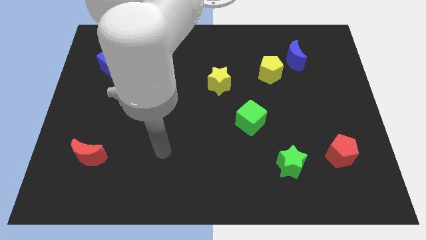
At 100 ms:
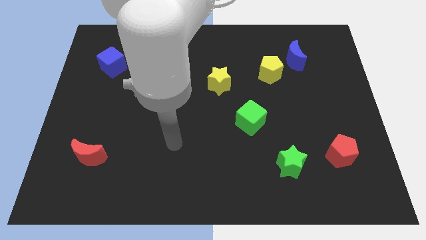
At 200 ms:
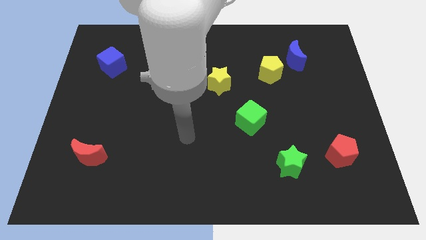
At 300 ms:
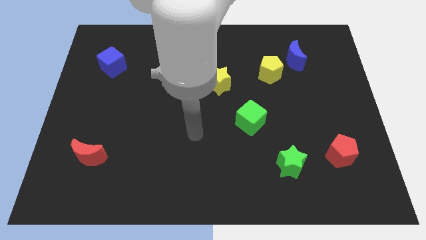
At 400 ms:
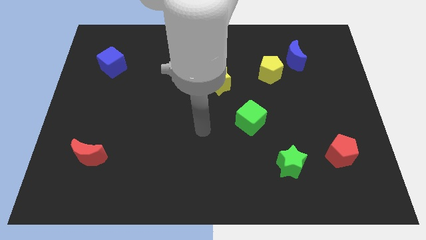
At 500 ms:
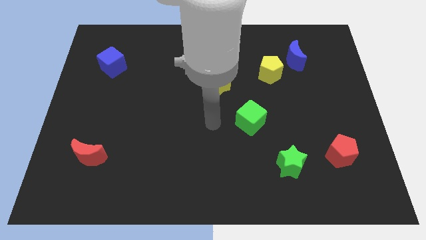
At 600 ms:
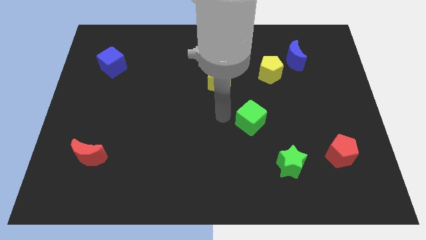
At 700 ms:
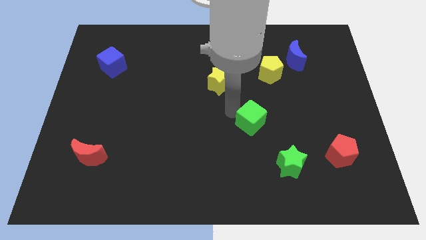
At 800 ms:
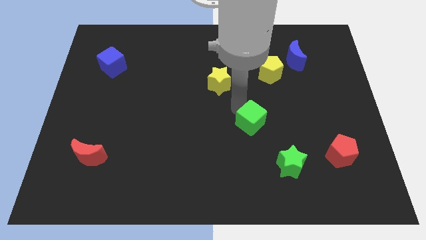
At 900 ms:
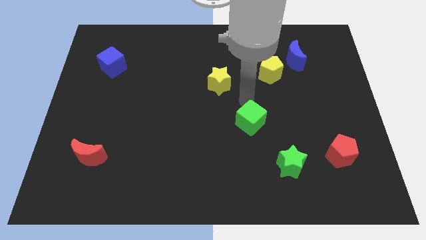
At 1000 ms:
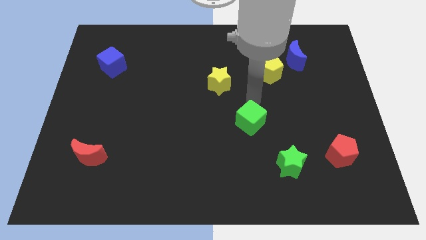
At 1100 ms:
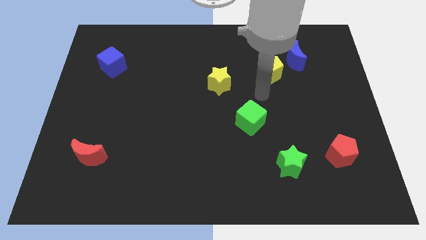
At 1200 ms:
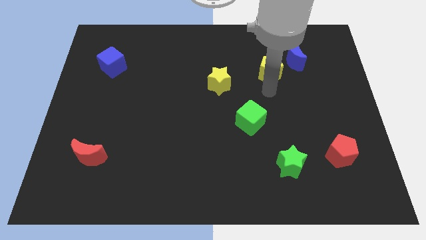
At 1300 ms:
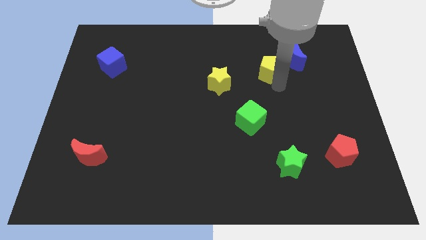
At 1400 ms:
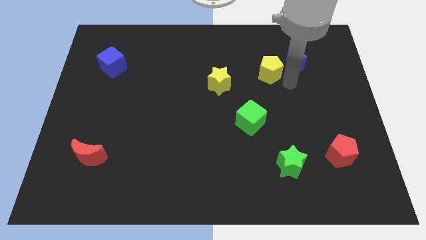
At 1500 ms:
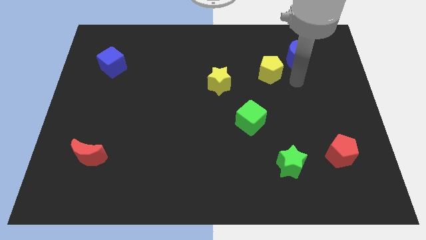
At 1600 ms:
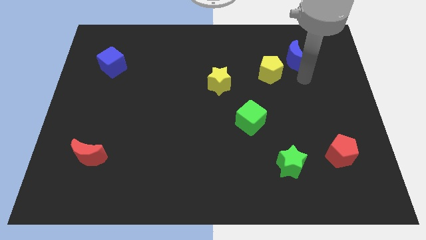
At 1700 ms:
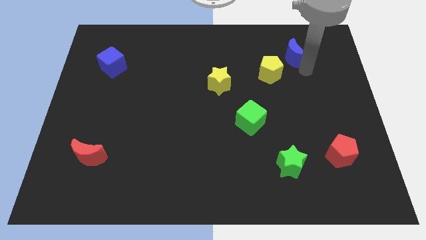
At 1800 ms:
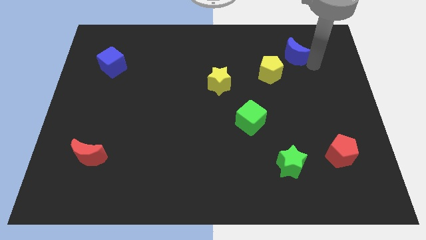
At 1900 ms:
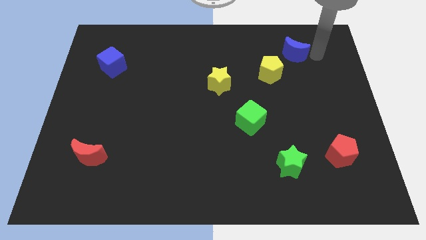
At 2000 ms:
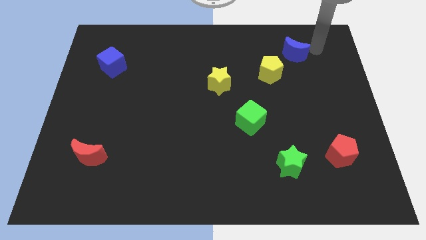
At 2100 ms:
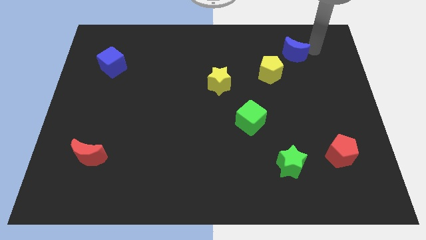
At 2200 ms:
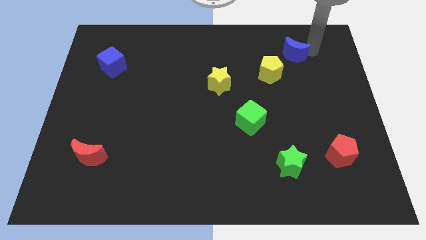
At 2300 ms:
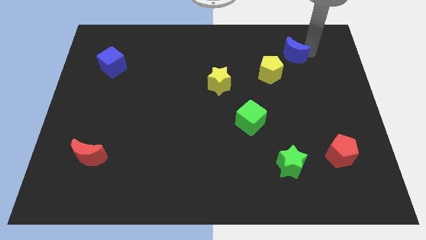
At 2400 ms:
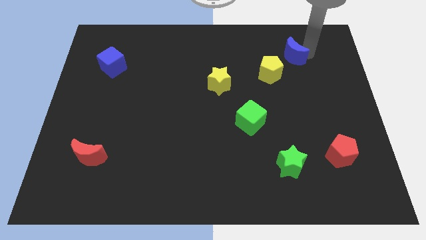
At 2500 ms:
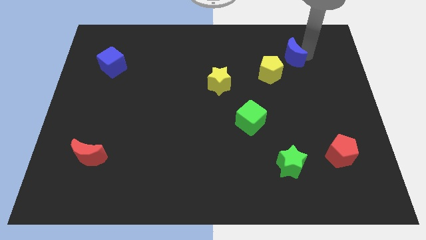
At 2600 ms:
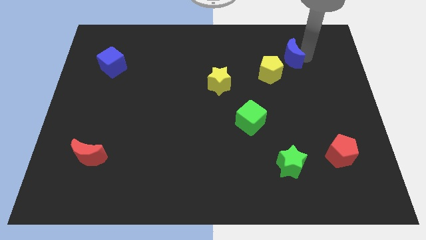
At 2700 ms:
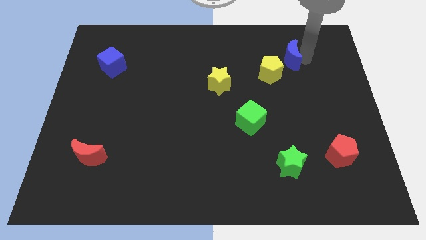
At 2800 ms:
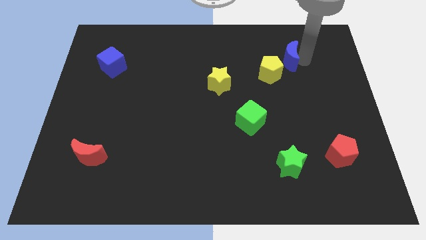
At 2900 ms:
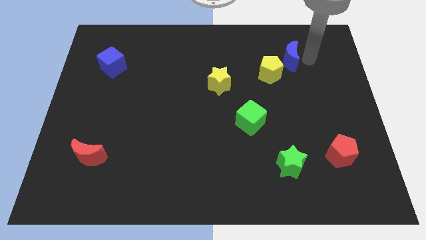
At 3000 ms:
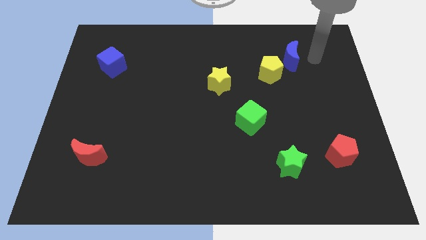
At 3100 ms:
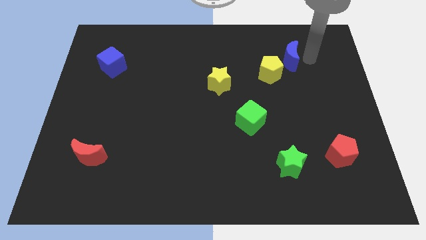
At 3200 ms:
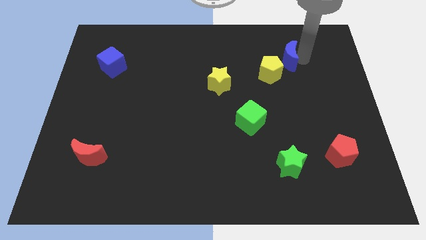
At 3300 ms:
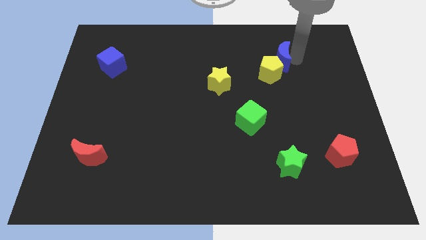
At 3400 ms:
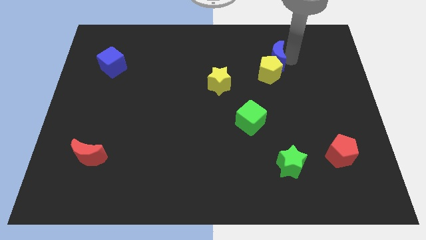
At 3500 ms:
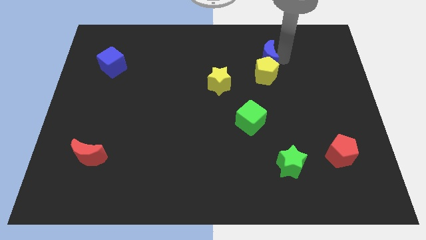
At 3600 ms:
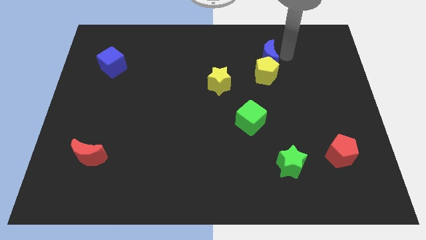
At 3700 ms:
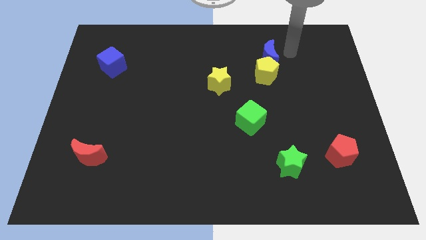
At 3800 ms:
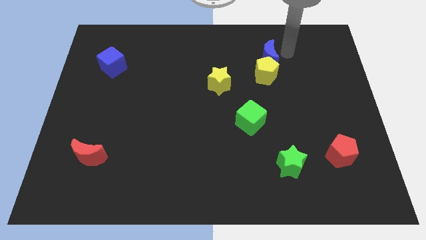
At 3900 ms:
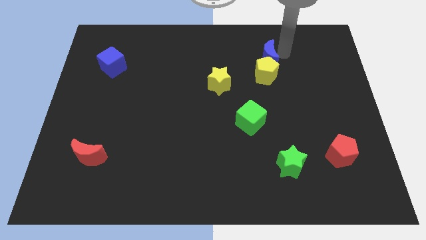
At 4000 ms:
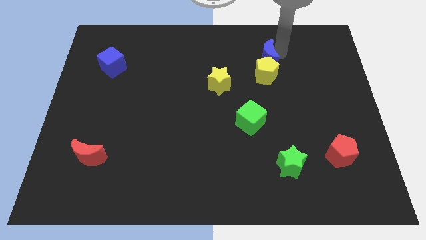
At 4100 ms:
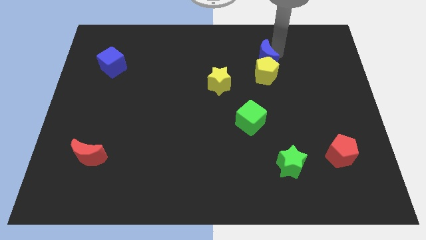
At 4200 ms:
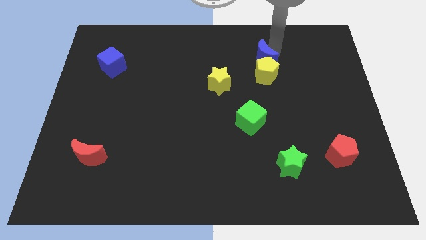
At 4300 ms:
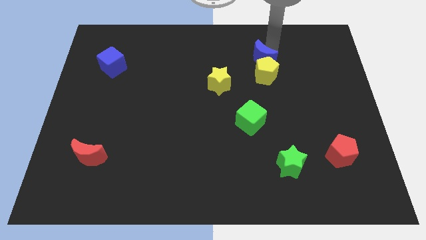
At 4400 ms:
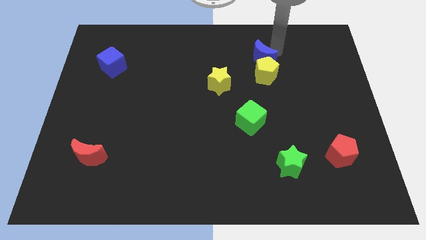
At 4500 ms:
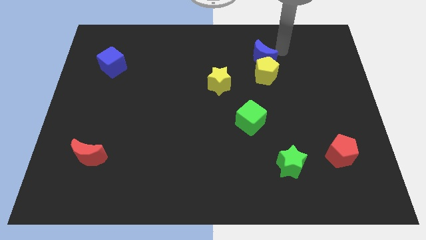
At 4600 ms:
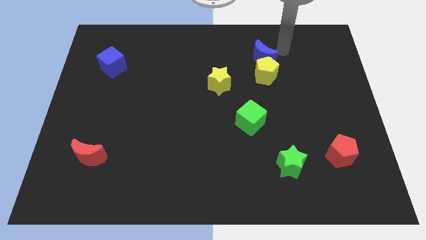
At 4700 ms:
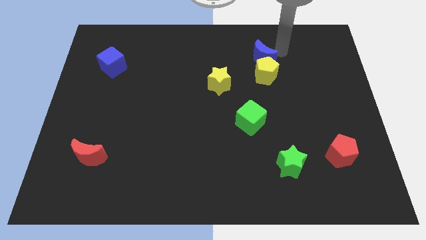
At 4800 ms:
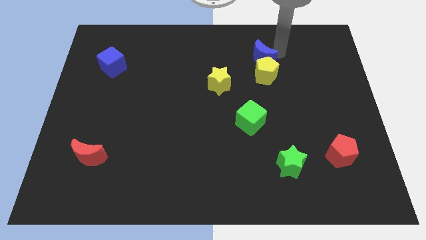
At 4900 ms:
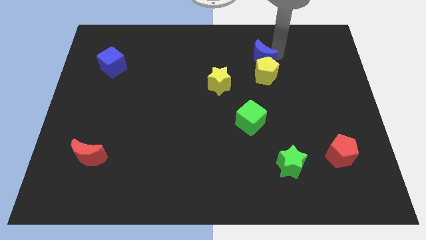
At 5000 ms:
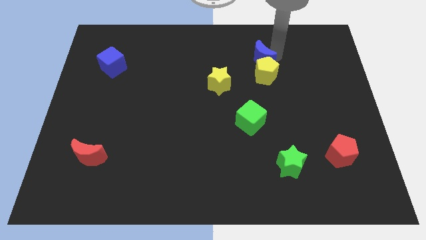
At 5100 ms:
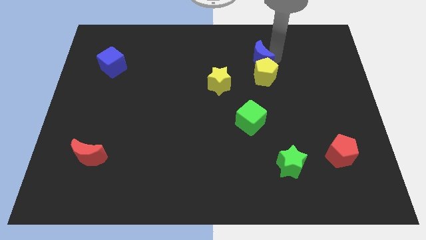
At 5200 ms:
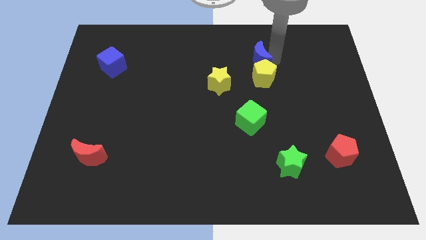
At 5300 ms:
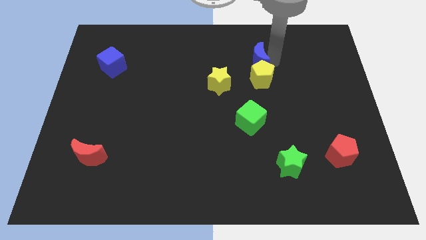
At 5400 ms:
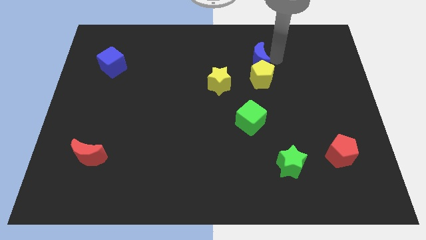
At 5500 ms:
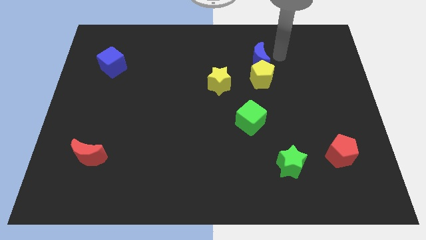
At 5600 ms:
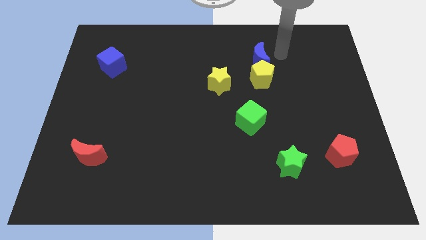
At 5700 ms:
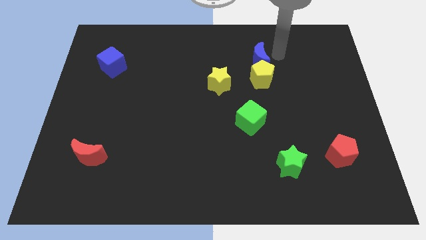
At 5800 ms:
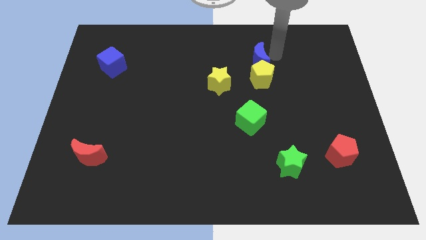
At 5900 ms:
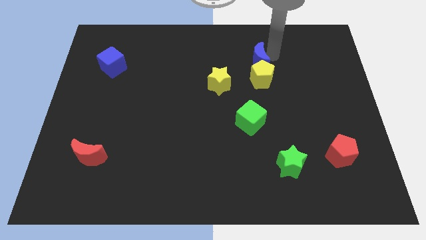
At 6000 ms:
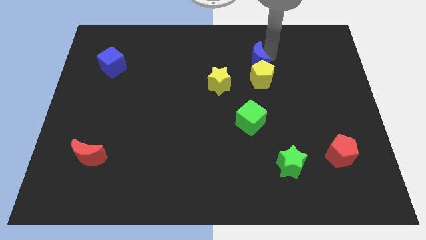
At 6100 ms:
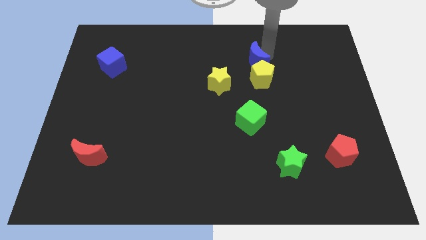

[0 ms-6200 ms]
put the blue moon to the top right of the yellow star
